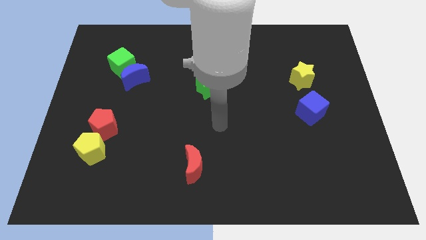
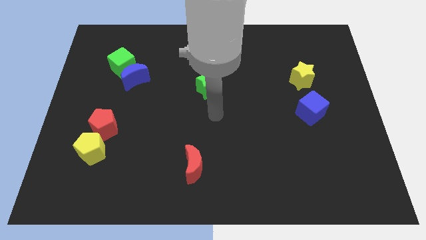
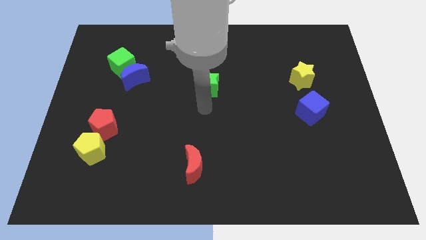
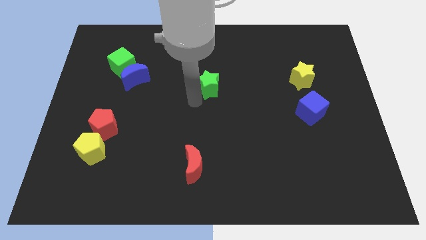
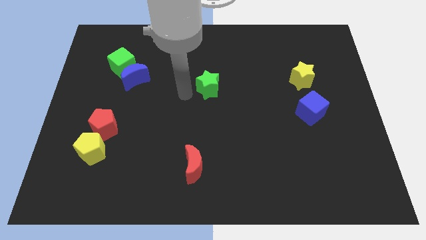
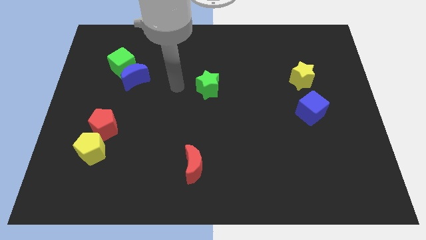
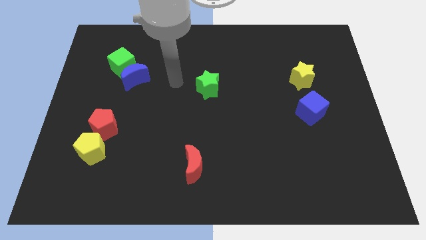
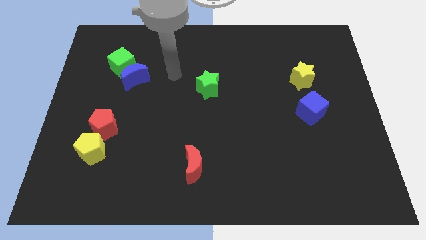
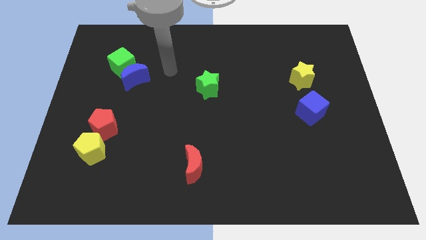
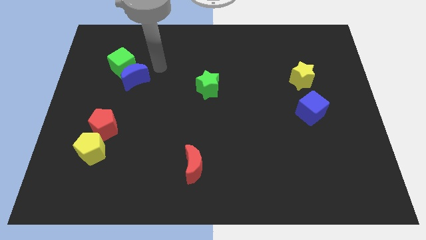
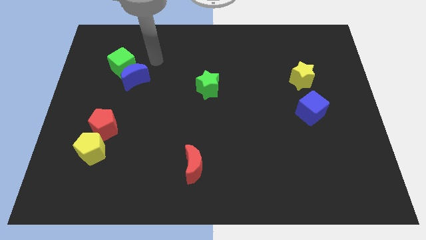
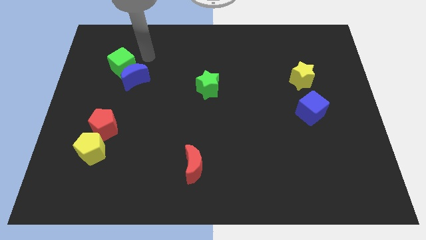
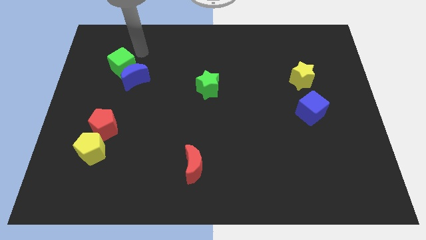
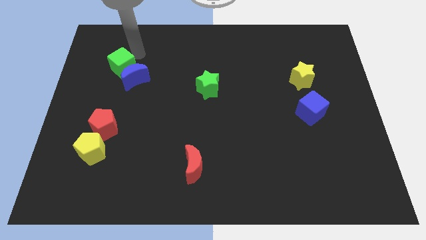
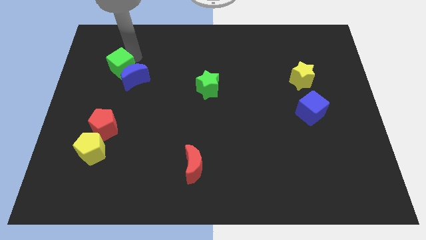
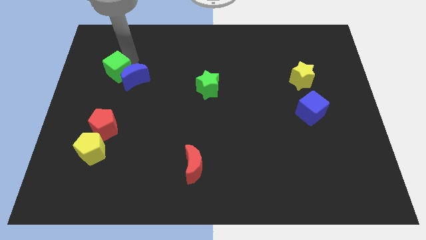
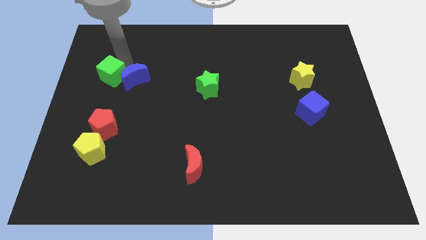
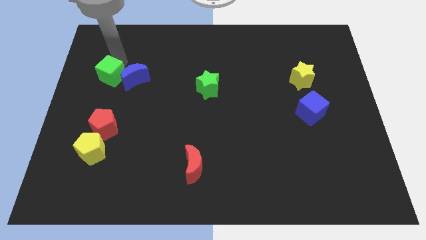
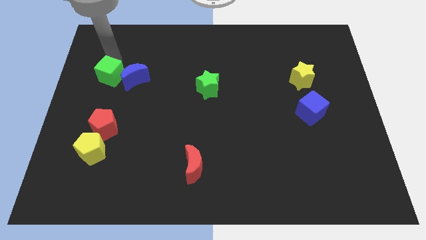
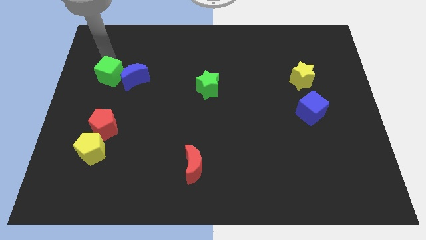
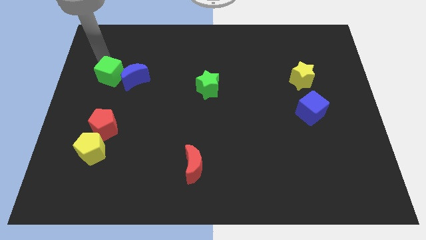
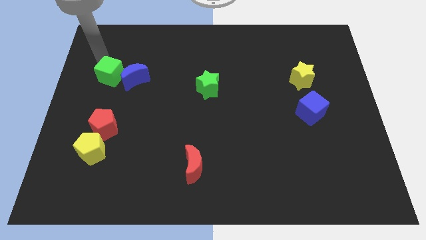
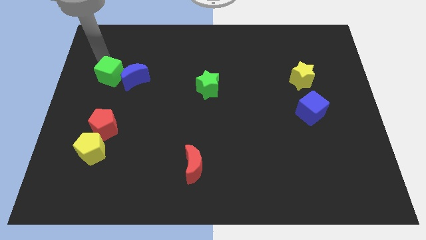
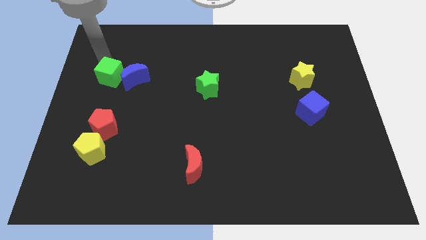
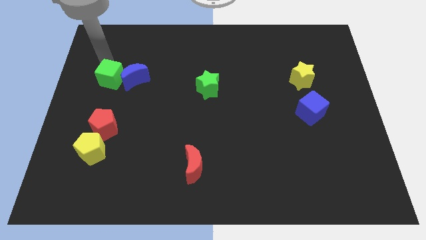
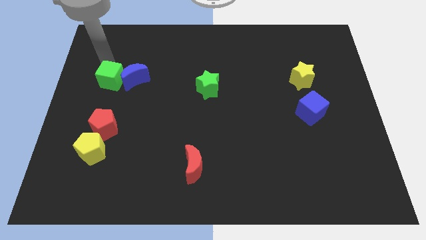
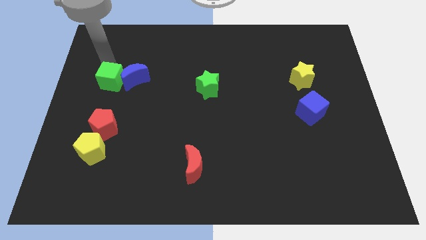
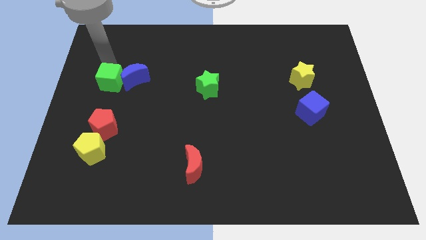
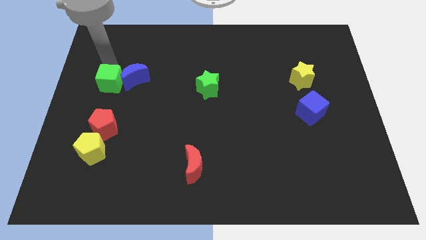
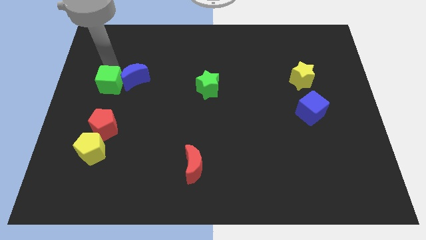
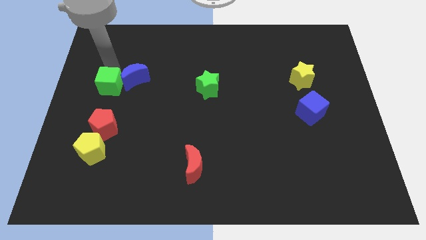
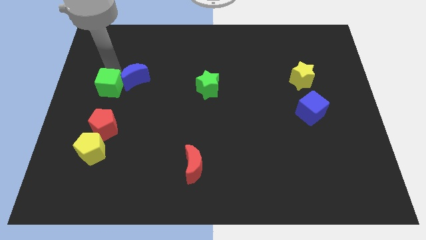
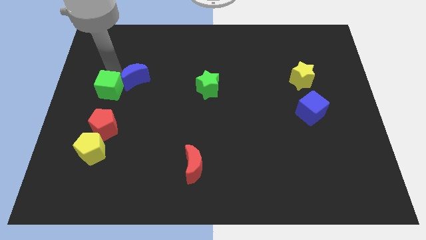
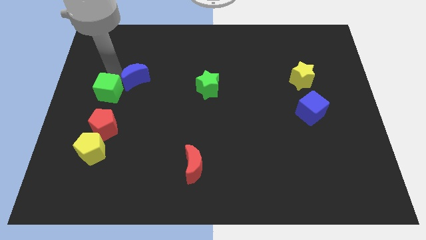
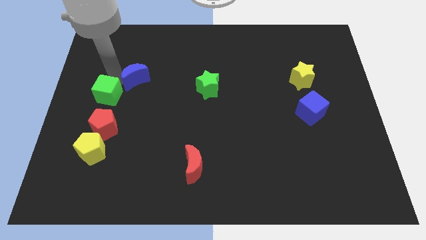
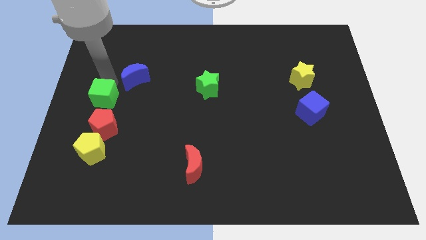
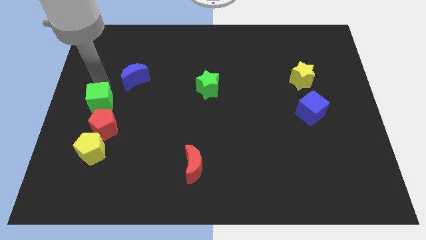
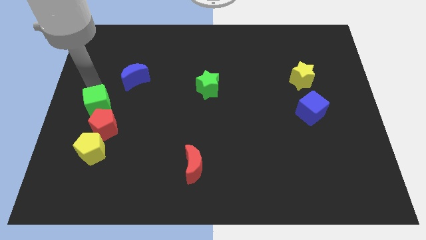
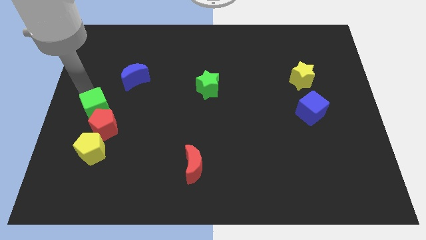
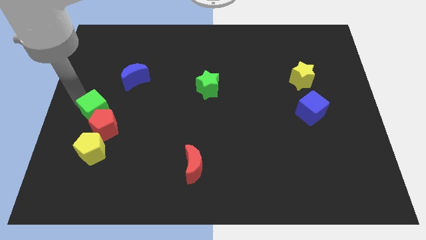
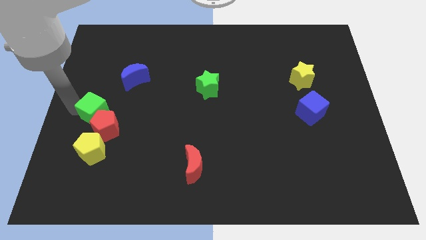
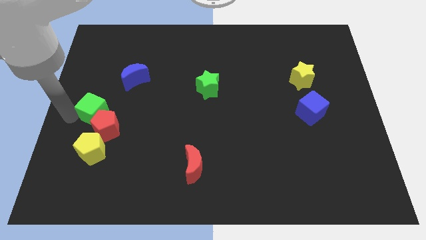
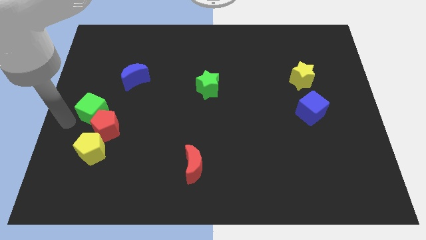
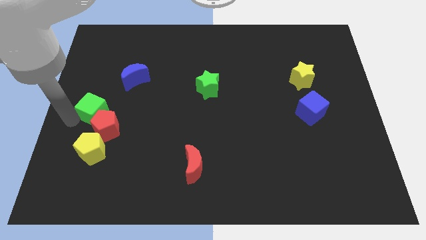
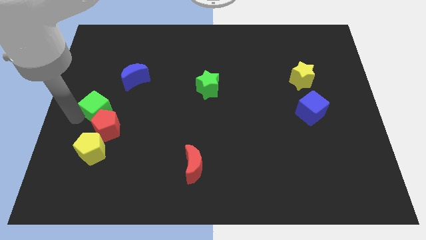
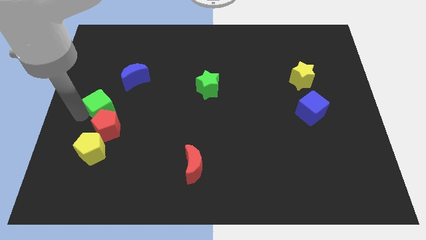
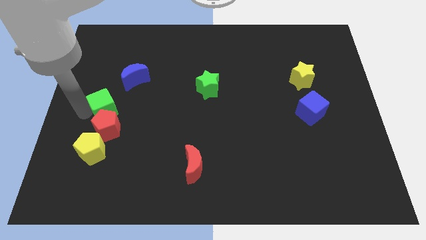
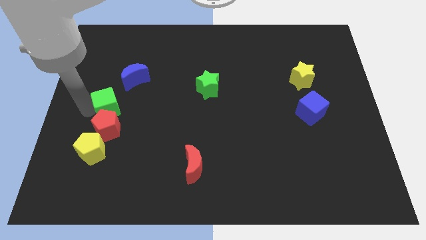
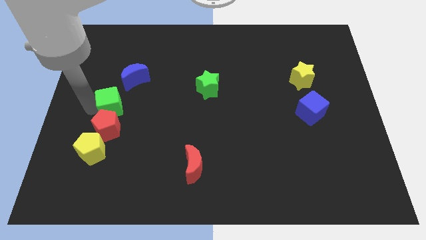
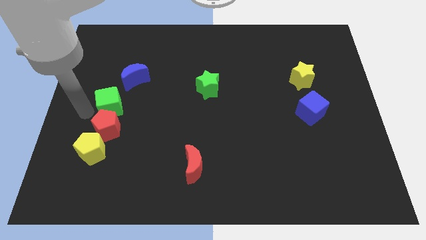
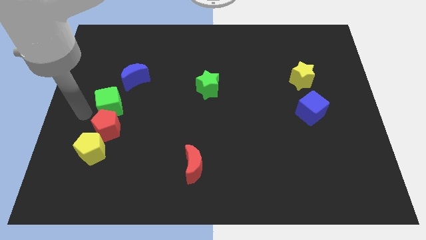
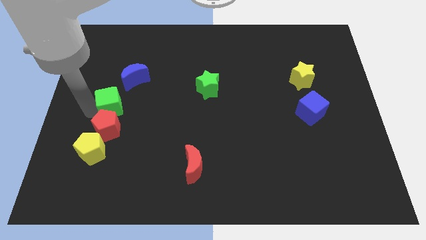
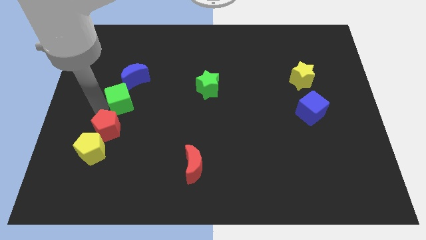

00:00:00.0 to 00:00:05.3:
move the green cube slightly diagonally down and right

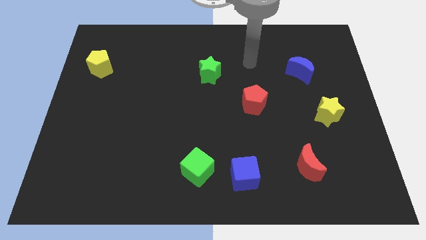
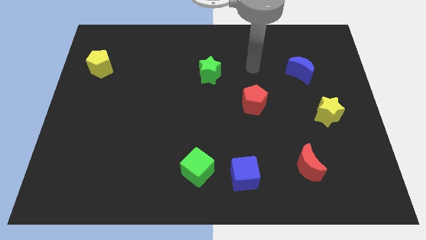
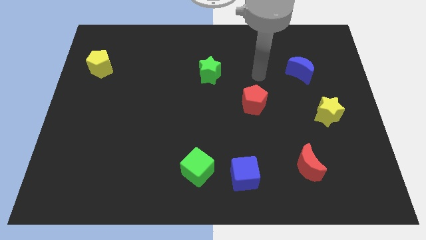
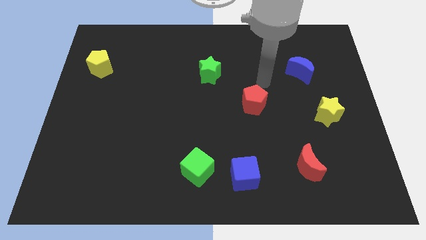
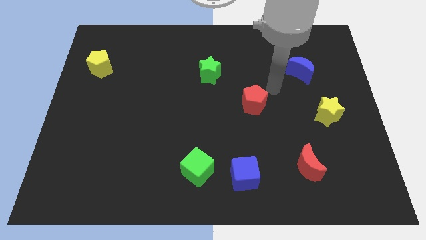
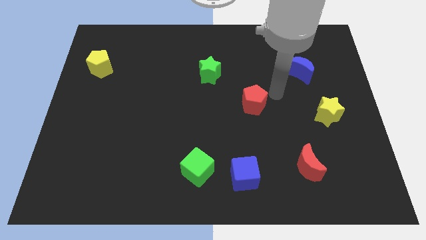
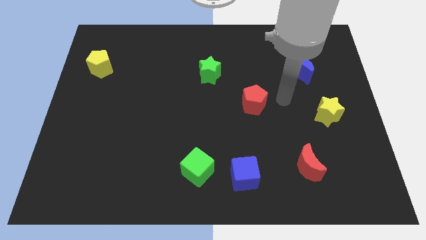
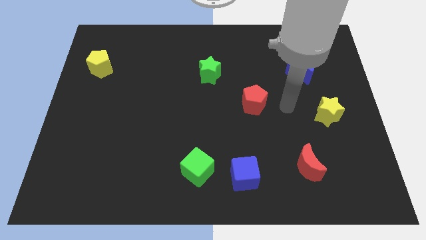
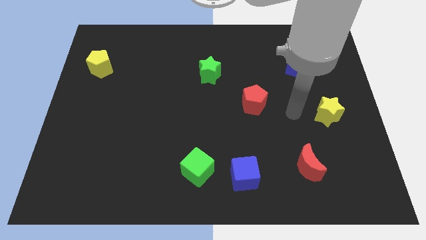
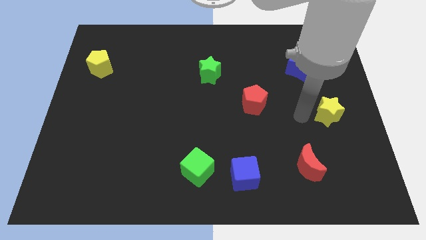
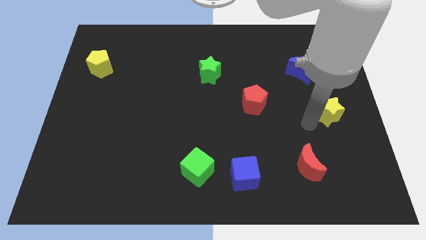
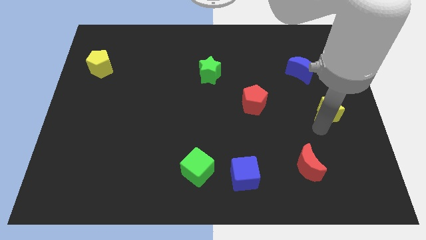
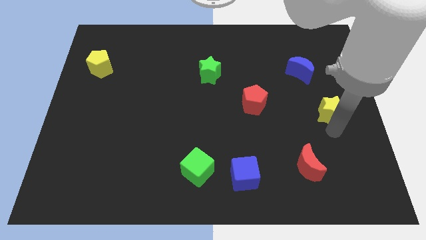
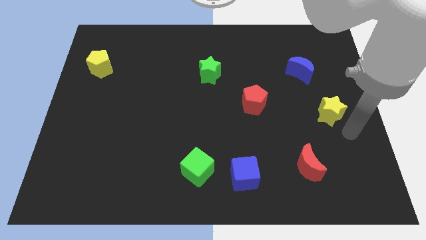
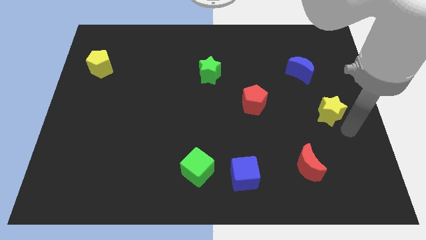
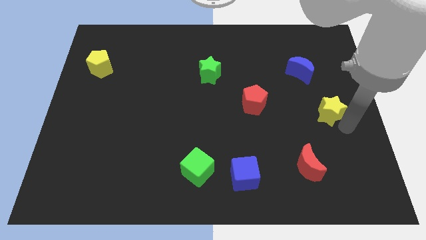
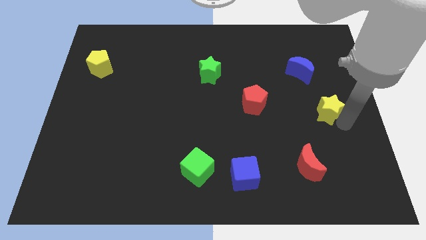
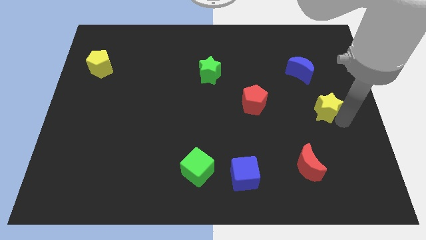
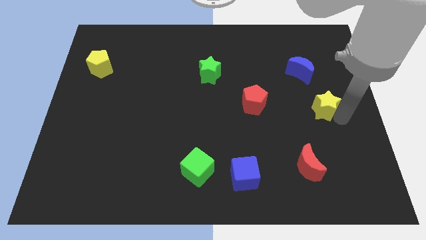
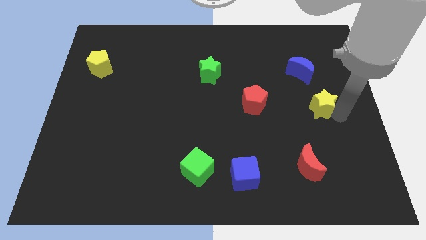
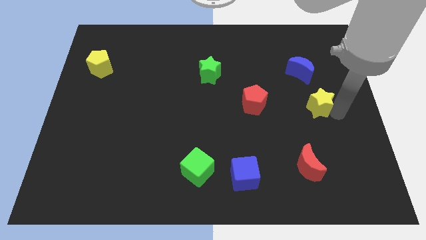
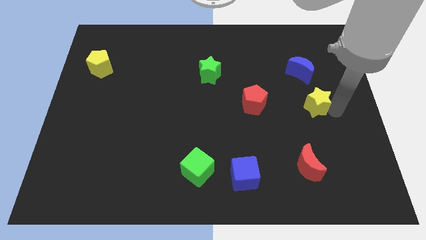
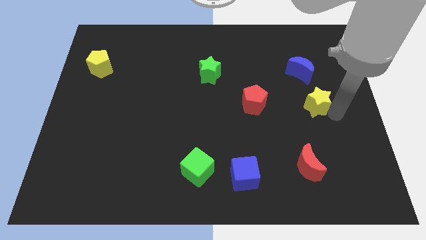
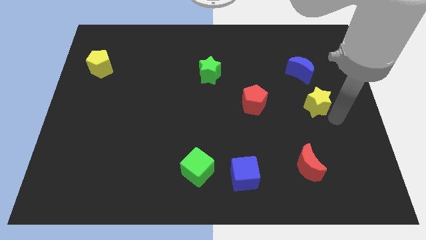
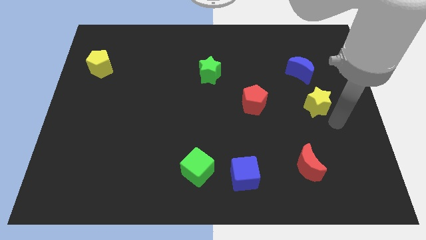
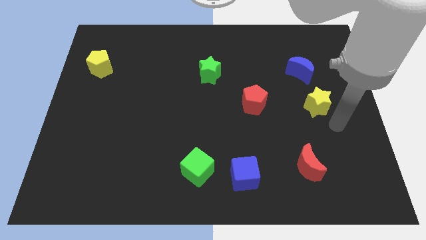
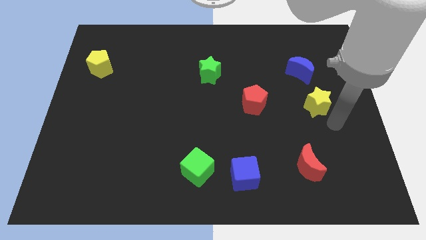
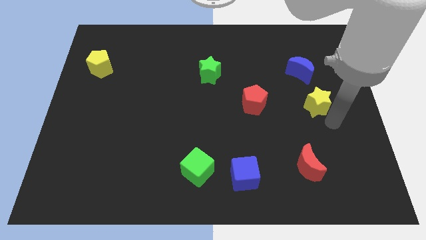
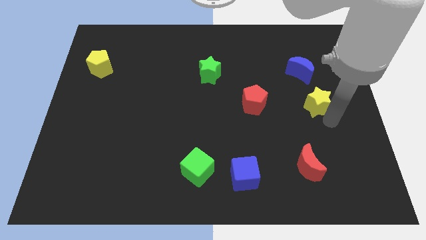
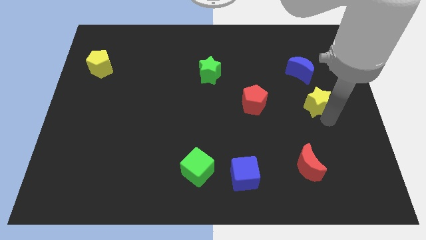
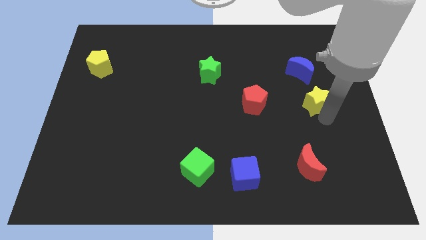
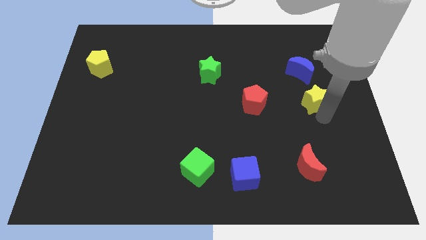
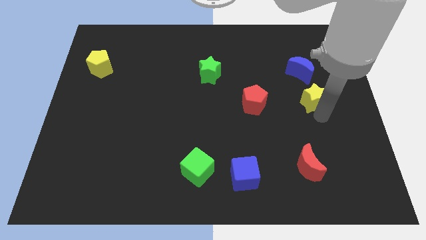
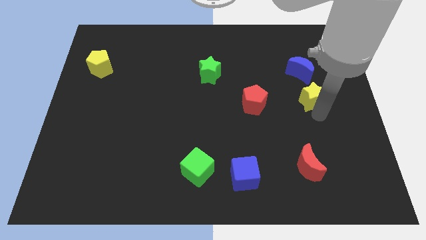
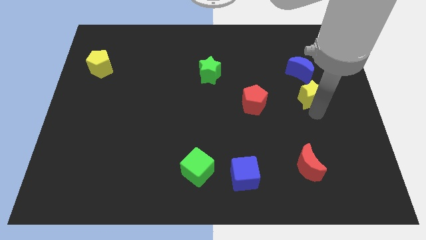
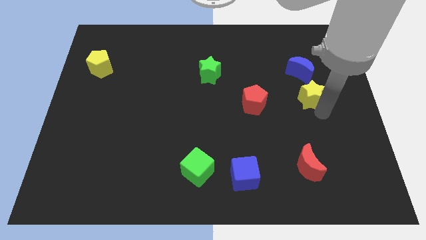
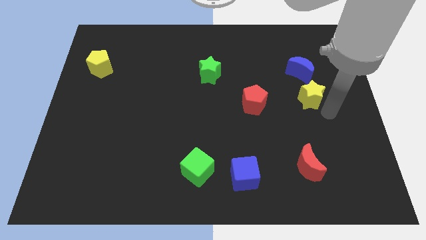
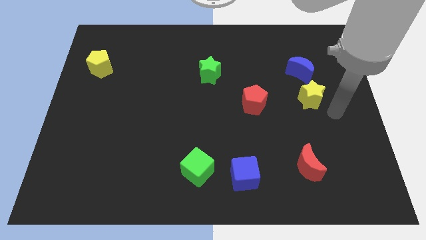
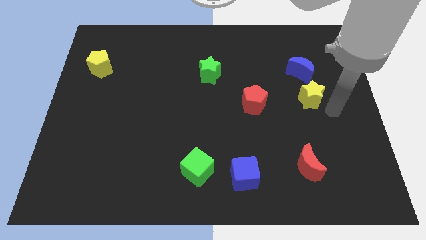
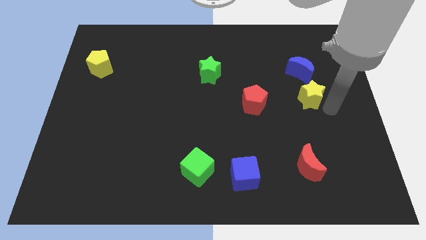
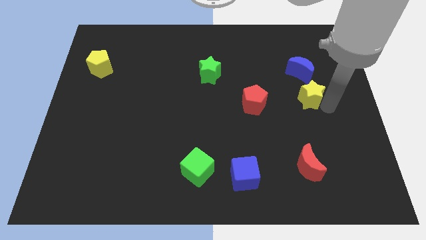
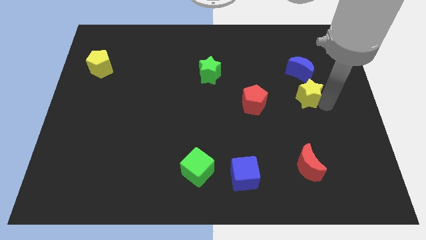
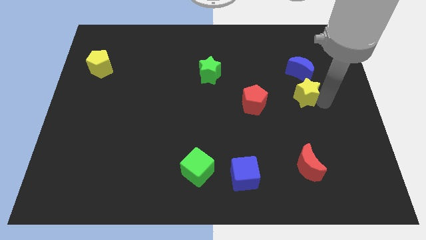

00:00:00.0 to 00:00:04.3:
slide the yellow star a bit upwards and left diagonally
